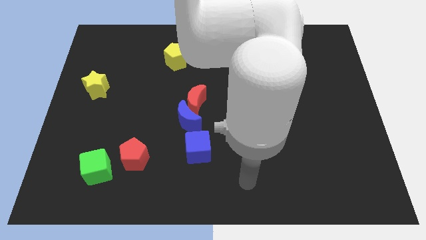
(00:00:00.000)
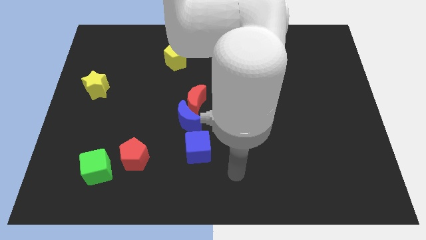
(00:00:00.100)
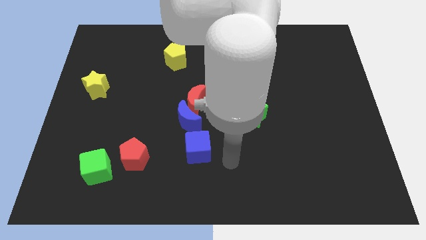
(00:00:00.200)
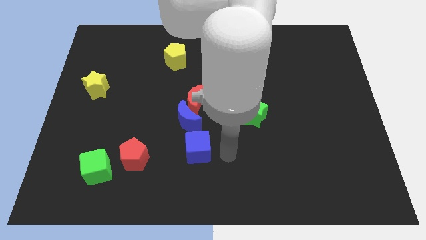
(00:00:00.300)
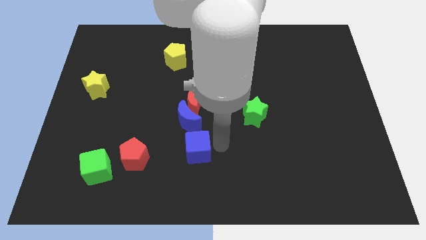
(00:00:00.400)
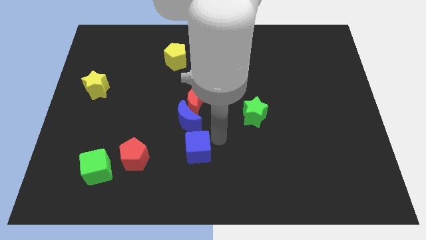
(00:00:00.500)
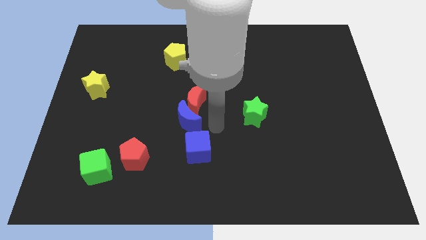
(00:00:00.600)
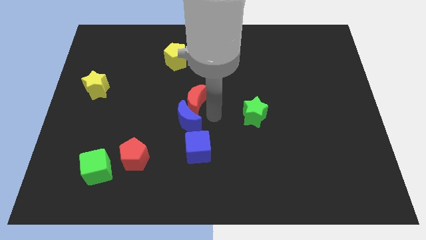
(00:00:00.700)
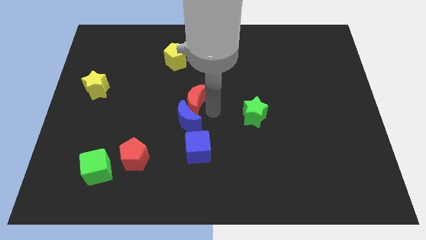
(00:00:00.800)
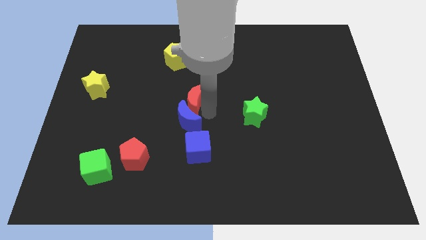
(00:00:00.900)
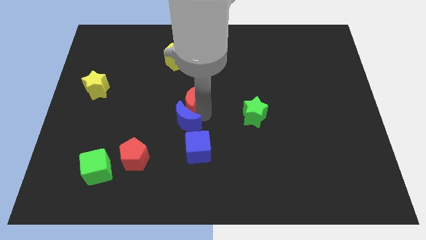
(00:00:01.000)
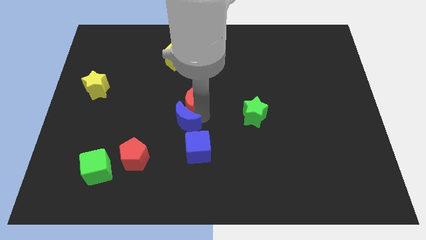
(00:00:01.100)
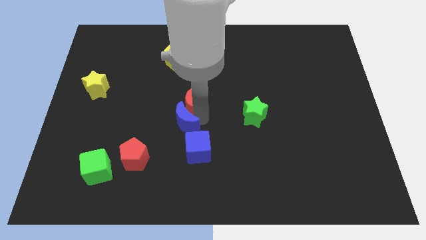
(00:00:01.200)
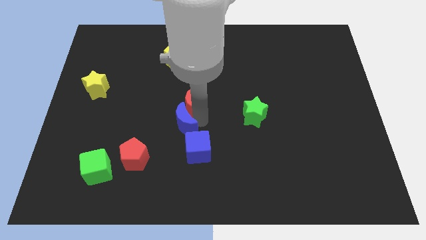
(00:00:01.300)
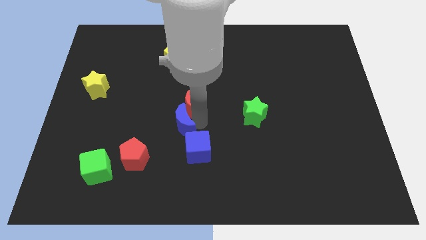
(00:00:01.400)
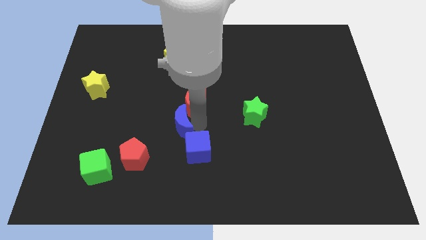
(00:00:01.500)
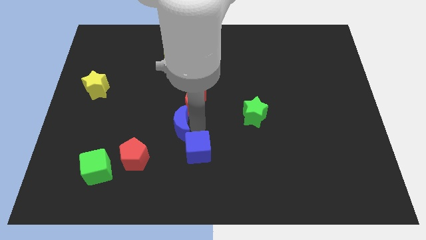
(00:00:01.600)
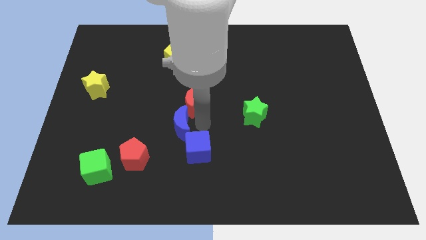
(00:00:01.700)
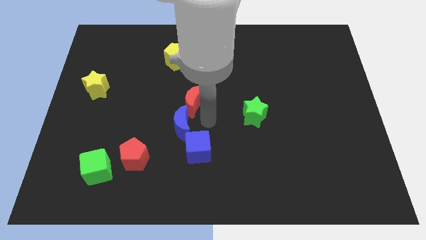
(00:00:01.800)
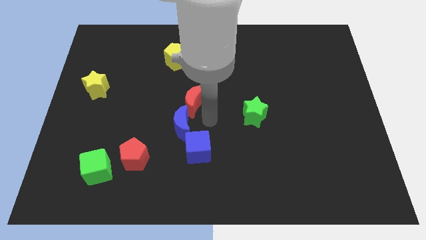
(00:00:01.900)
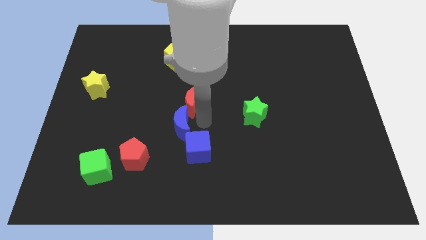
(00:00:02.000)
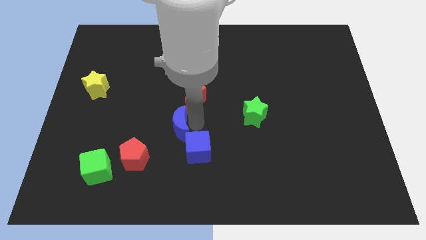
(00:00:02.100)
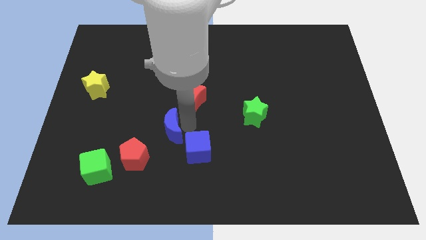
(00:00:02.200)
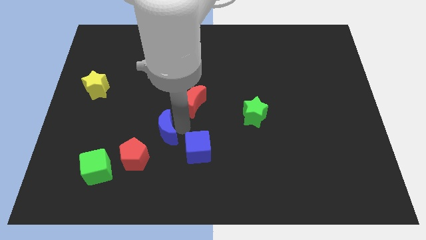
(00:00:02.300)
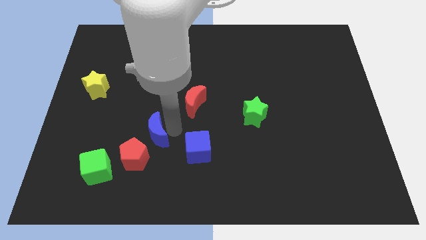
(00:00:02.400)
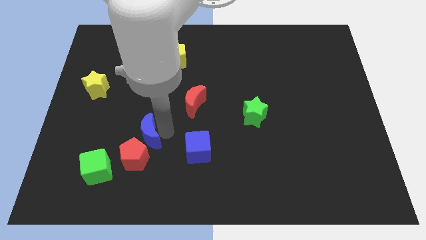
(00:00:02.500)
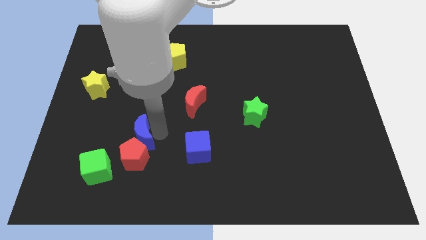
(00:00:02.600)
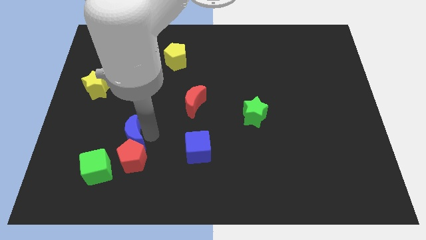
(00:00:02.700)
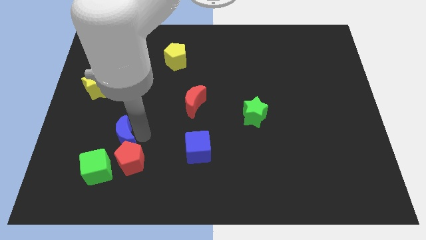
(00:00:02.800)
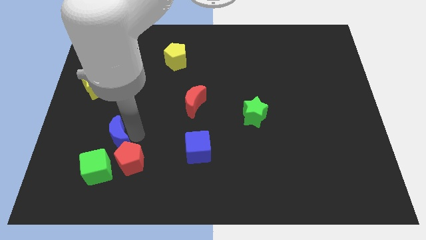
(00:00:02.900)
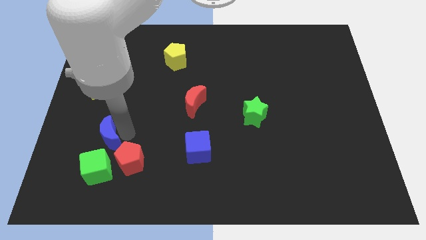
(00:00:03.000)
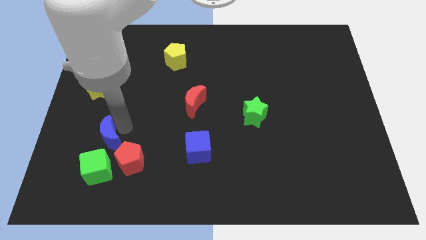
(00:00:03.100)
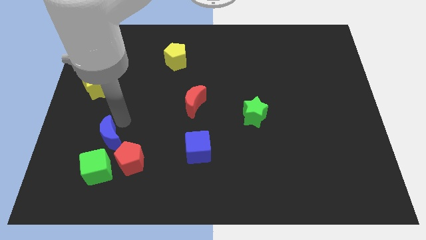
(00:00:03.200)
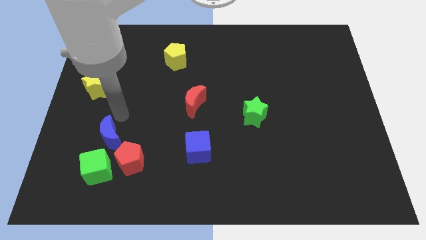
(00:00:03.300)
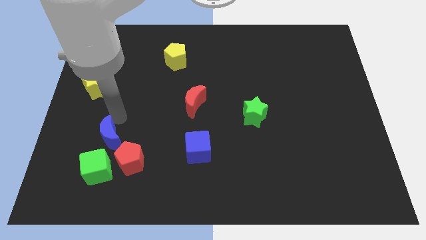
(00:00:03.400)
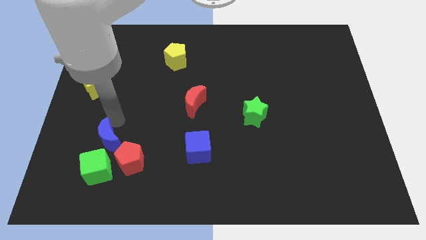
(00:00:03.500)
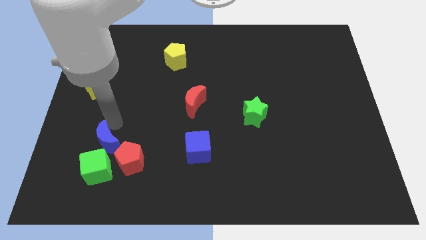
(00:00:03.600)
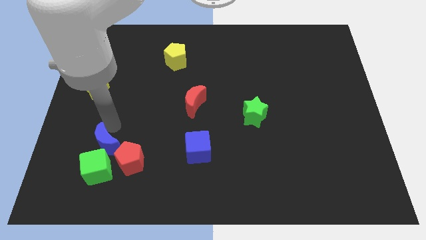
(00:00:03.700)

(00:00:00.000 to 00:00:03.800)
put the blue moon towards the green cube

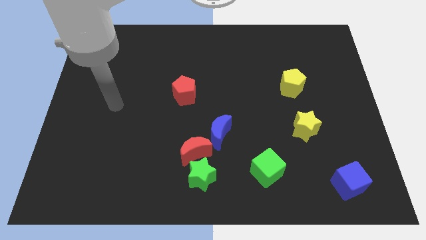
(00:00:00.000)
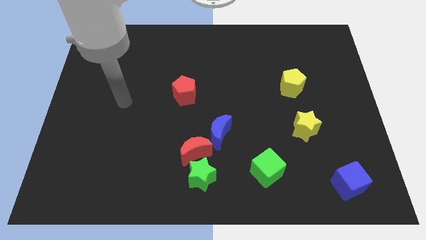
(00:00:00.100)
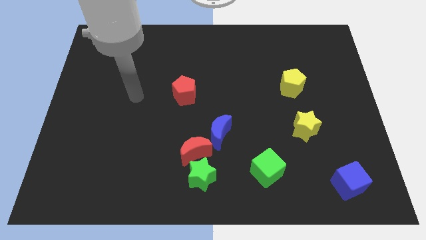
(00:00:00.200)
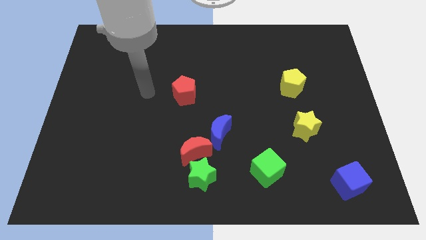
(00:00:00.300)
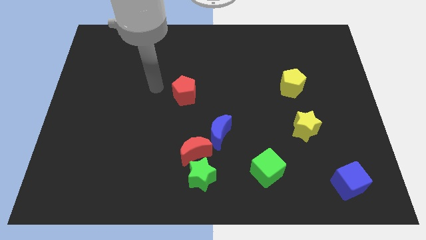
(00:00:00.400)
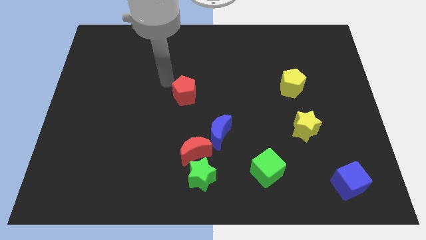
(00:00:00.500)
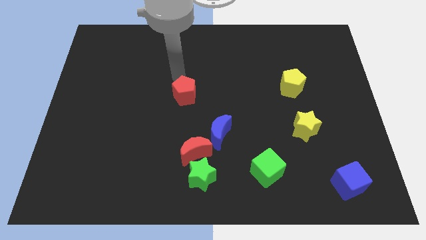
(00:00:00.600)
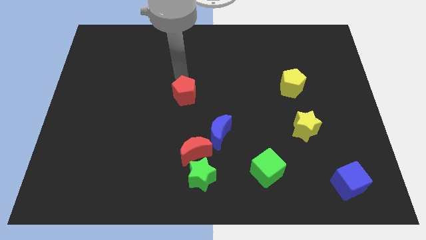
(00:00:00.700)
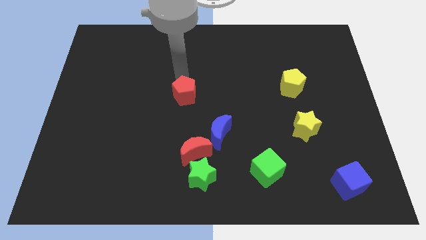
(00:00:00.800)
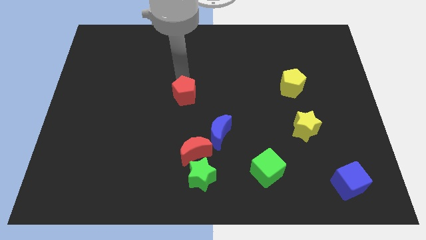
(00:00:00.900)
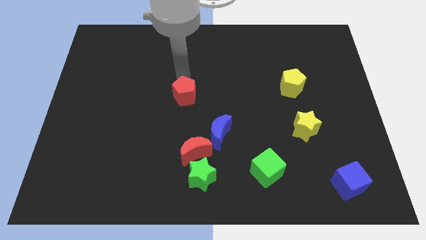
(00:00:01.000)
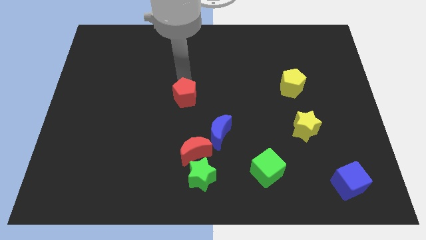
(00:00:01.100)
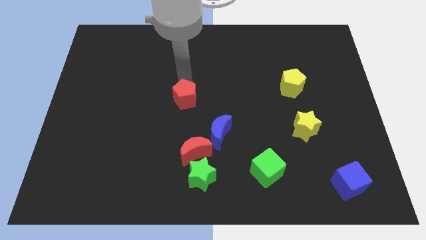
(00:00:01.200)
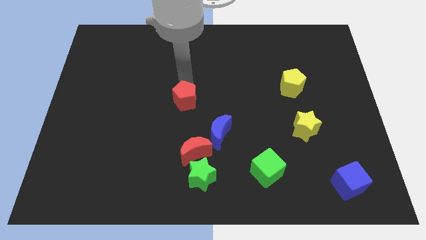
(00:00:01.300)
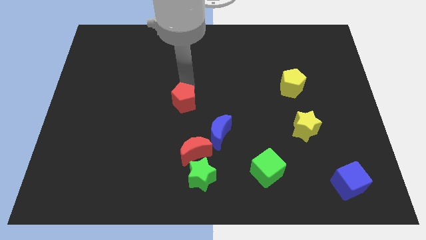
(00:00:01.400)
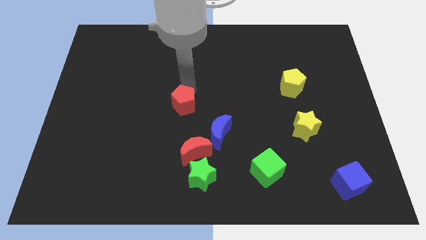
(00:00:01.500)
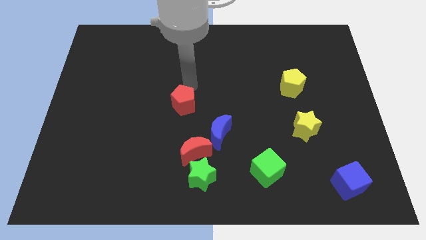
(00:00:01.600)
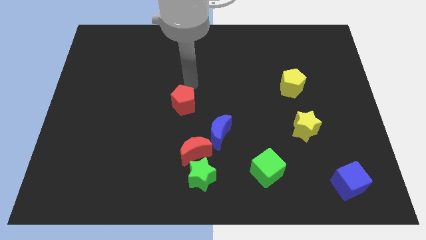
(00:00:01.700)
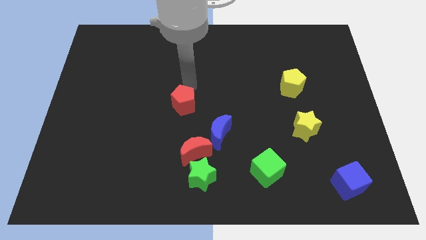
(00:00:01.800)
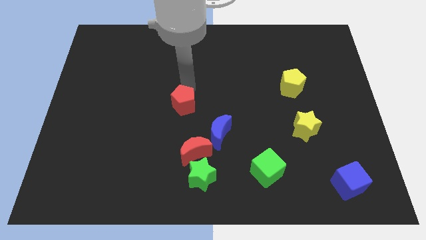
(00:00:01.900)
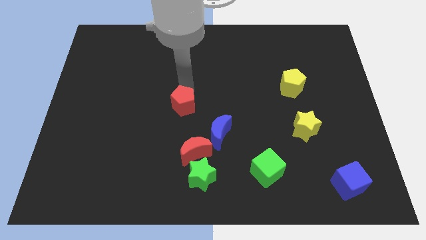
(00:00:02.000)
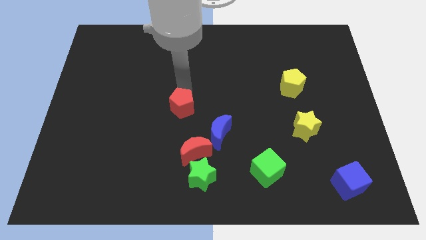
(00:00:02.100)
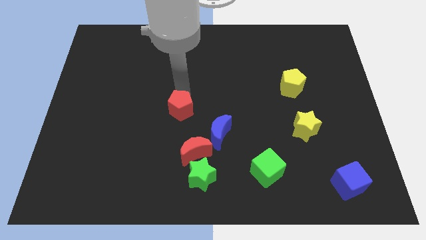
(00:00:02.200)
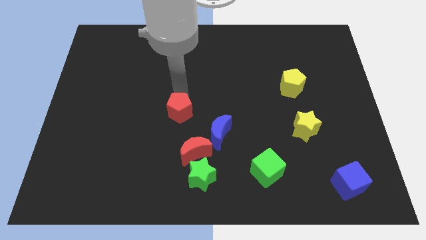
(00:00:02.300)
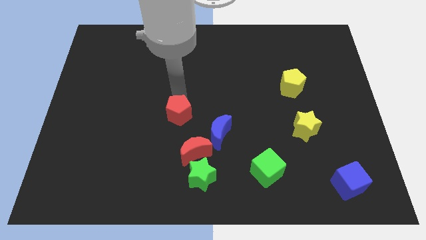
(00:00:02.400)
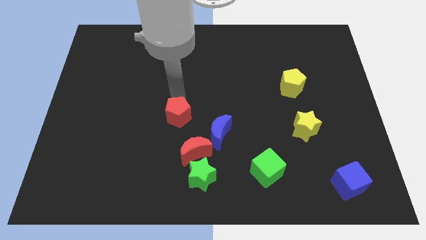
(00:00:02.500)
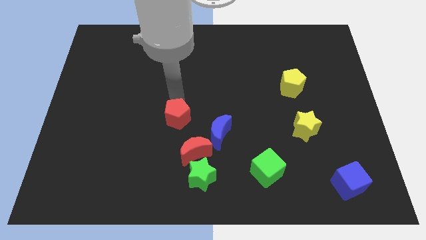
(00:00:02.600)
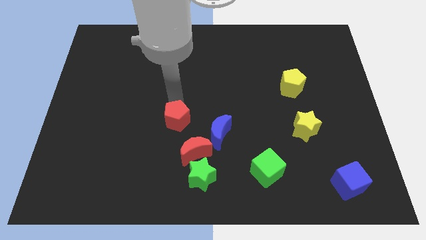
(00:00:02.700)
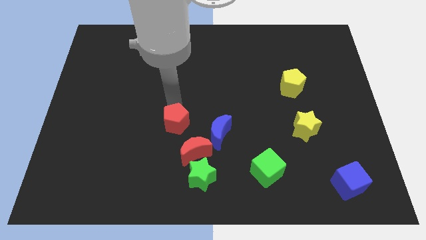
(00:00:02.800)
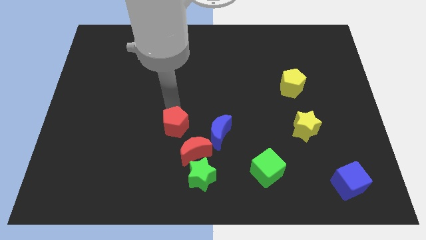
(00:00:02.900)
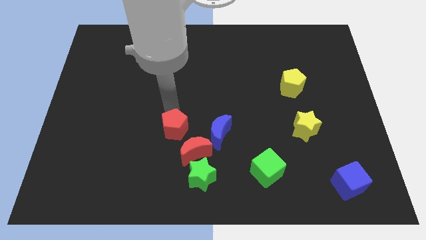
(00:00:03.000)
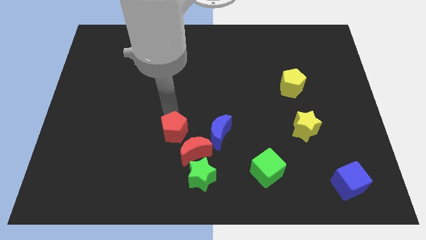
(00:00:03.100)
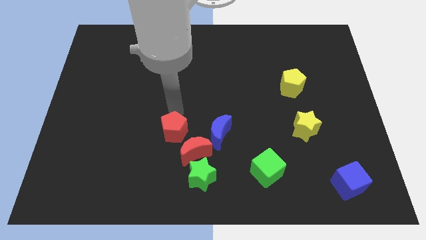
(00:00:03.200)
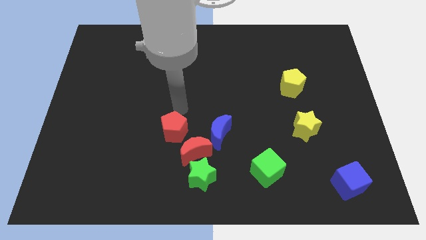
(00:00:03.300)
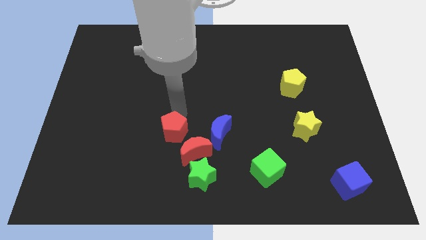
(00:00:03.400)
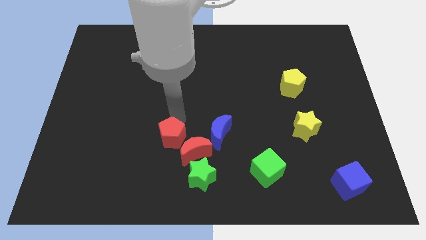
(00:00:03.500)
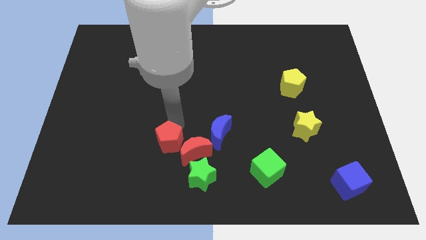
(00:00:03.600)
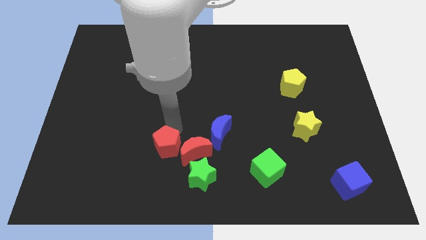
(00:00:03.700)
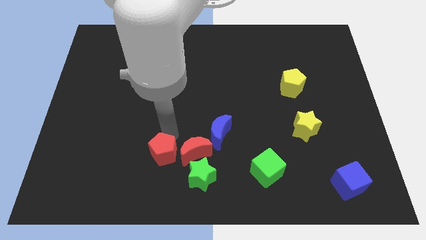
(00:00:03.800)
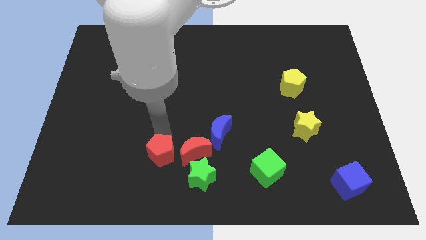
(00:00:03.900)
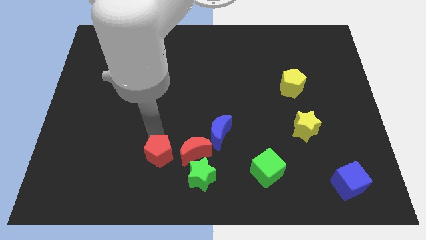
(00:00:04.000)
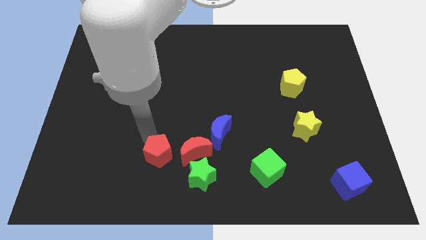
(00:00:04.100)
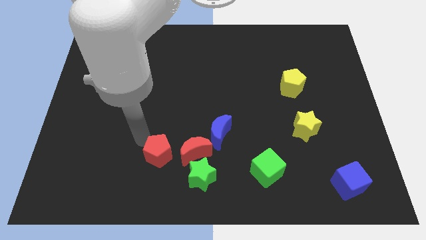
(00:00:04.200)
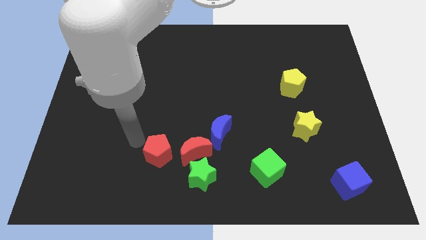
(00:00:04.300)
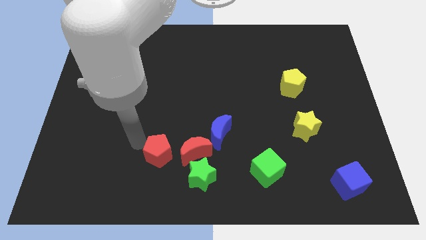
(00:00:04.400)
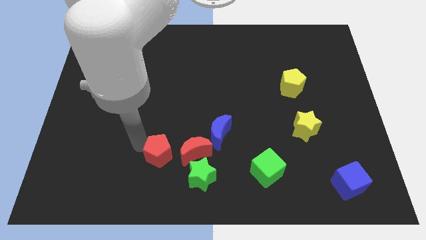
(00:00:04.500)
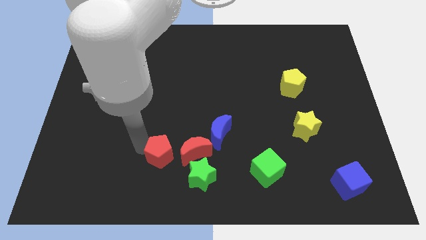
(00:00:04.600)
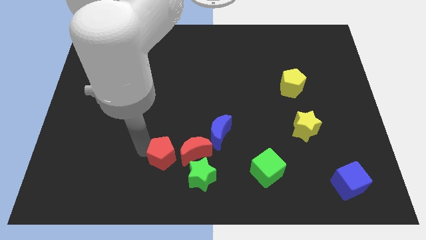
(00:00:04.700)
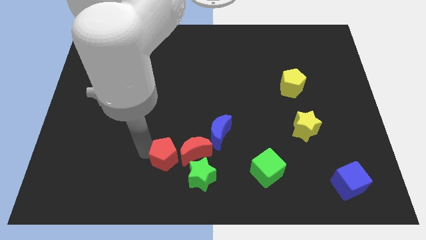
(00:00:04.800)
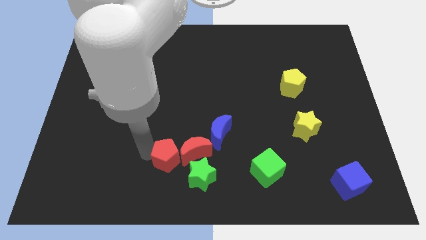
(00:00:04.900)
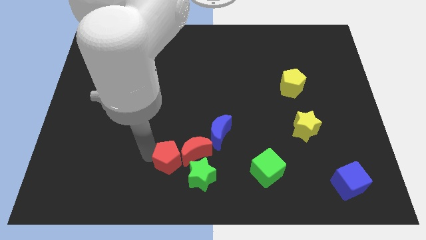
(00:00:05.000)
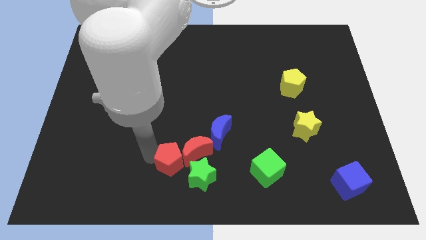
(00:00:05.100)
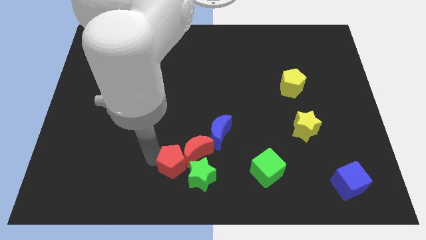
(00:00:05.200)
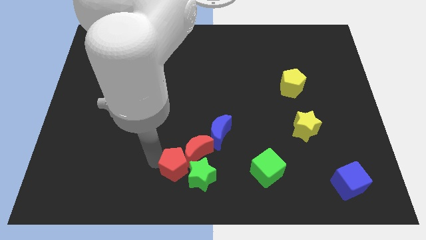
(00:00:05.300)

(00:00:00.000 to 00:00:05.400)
push the red pentagon close to the green star
